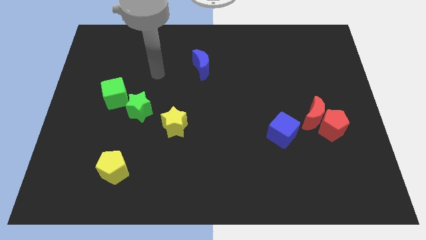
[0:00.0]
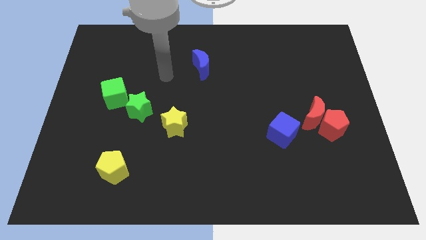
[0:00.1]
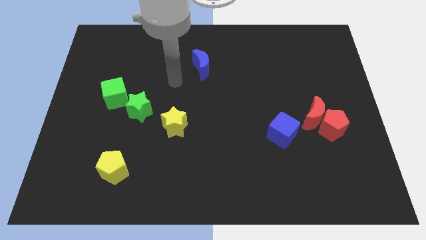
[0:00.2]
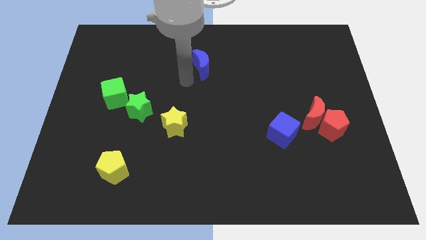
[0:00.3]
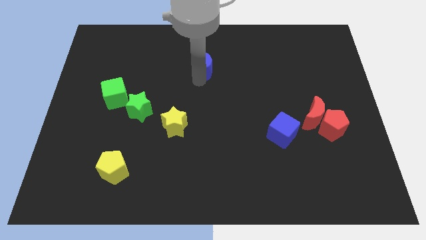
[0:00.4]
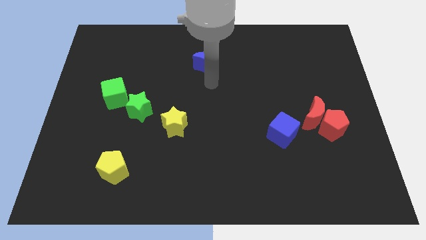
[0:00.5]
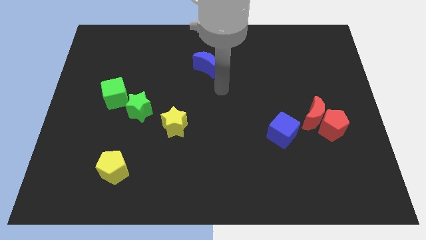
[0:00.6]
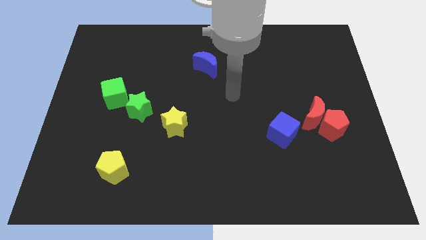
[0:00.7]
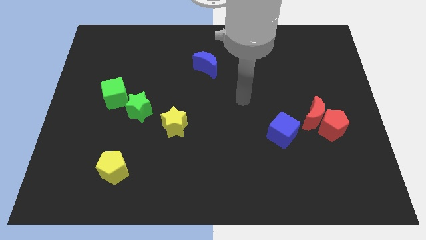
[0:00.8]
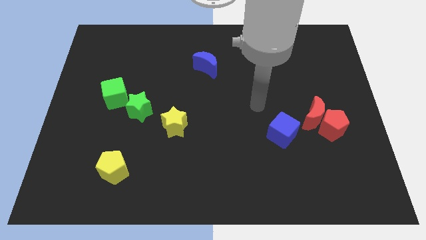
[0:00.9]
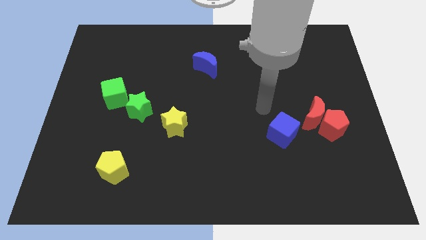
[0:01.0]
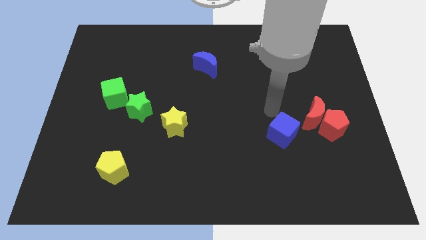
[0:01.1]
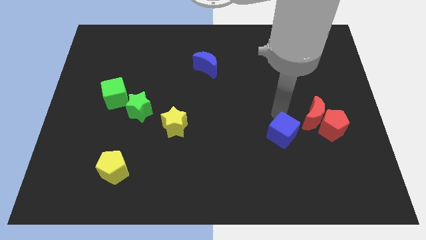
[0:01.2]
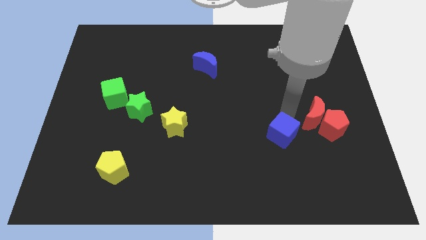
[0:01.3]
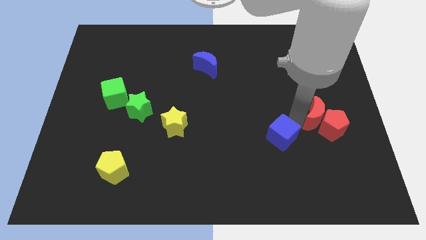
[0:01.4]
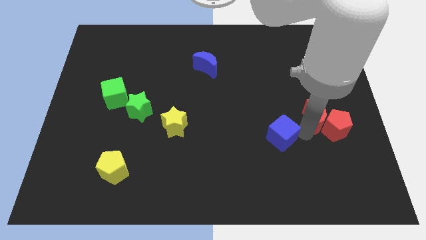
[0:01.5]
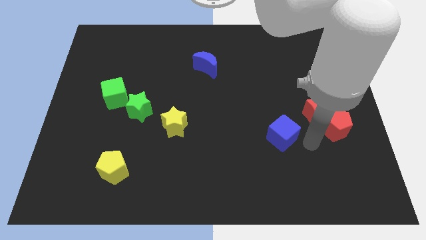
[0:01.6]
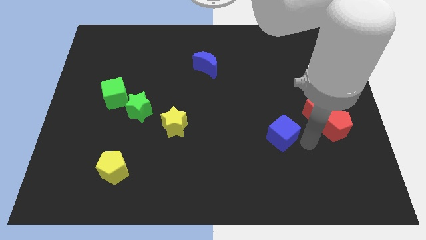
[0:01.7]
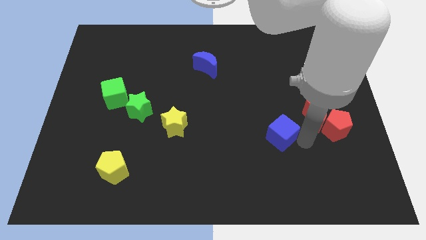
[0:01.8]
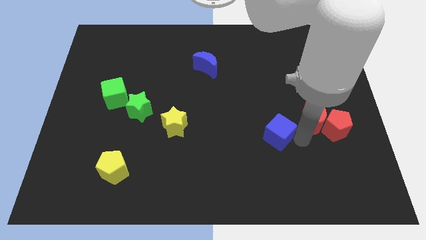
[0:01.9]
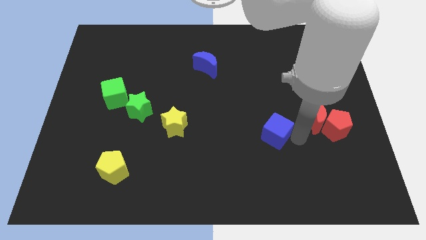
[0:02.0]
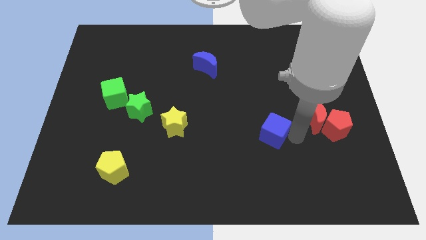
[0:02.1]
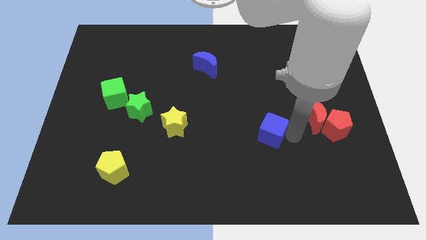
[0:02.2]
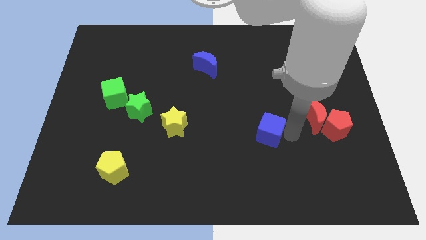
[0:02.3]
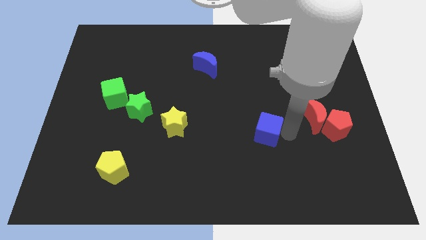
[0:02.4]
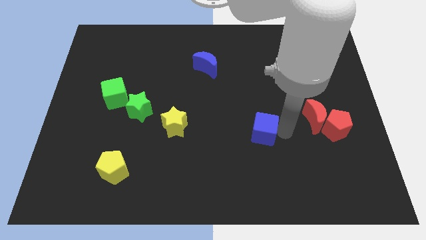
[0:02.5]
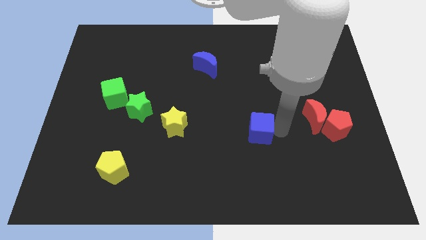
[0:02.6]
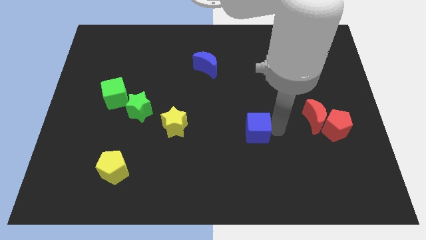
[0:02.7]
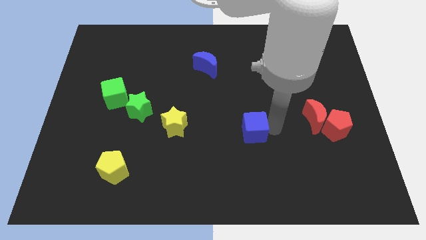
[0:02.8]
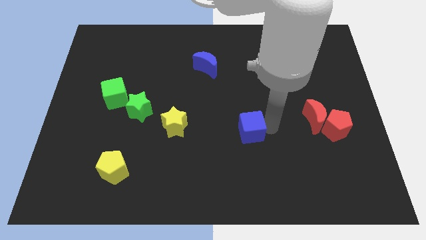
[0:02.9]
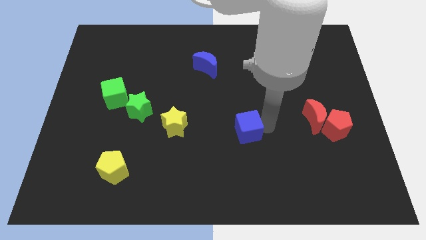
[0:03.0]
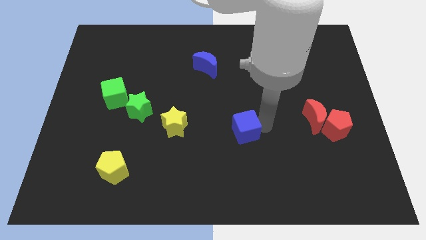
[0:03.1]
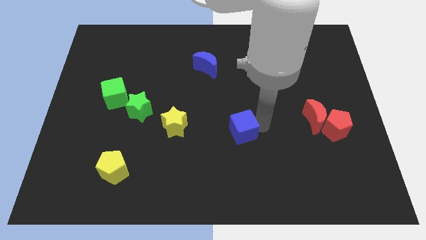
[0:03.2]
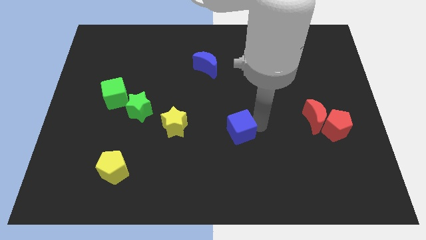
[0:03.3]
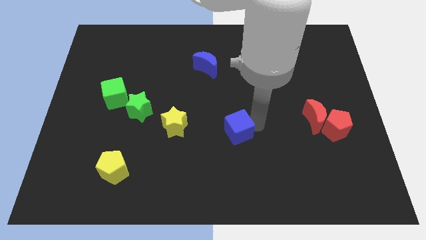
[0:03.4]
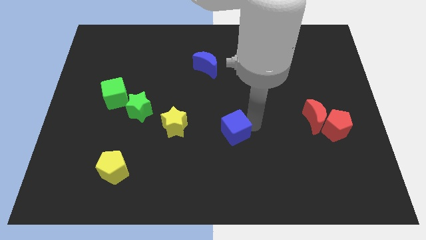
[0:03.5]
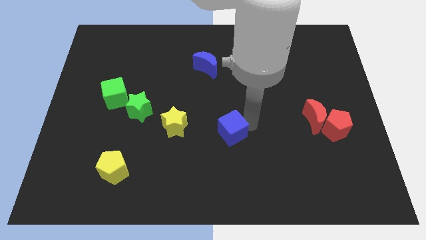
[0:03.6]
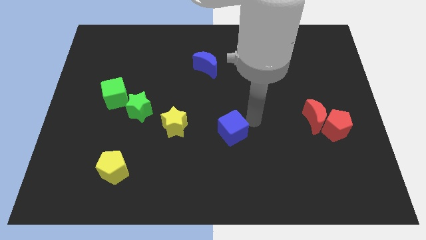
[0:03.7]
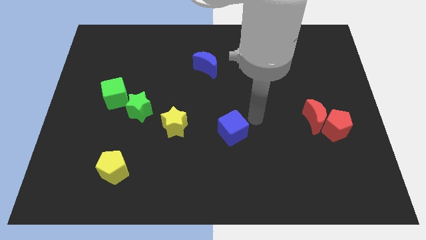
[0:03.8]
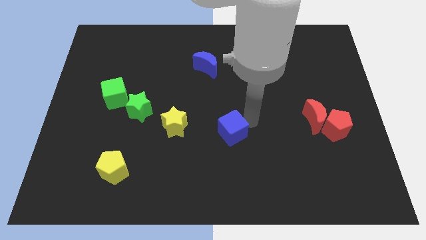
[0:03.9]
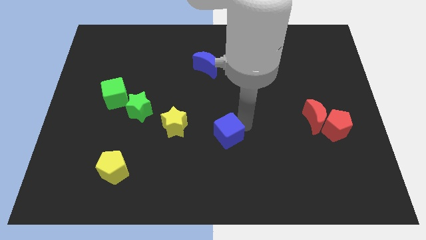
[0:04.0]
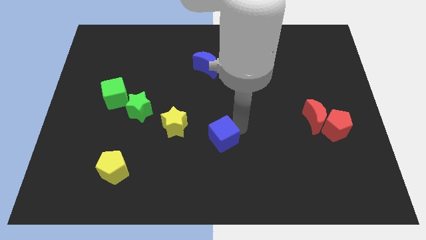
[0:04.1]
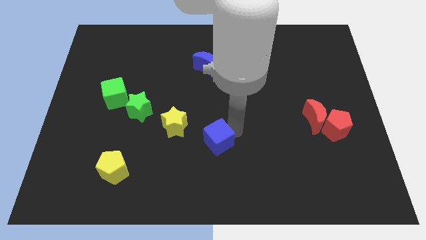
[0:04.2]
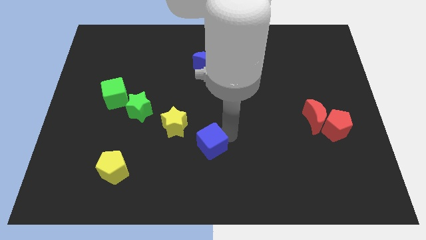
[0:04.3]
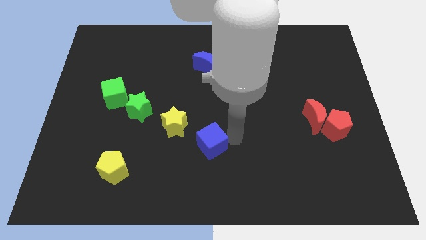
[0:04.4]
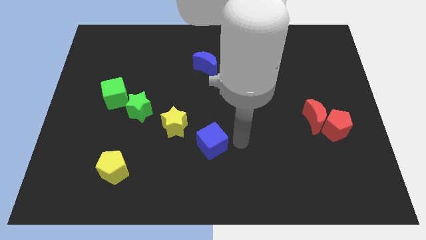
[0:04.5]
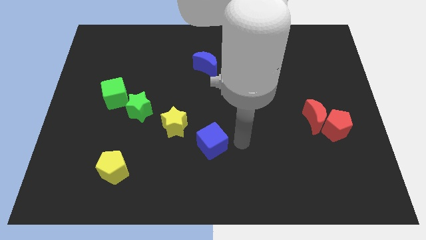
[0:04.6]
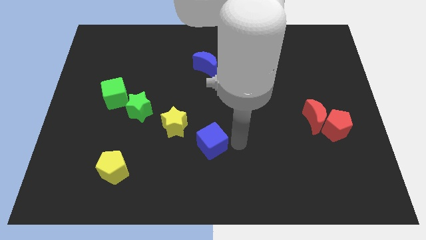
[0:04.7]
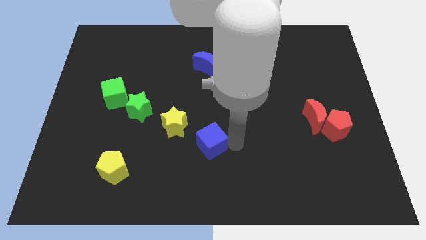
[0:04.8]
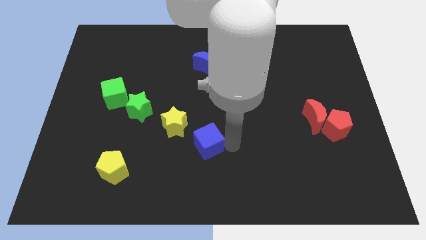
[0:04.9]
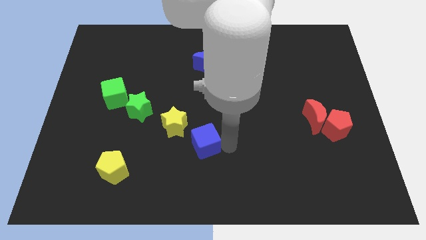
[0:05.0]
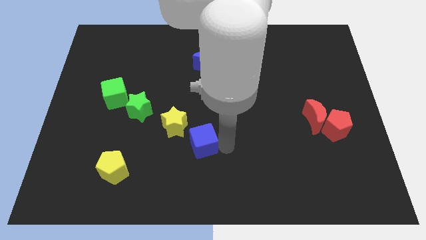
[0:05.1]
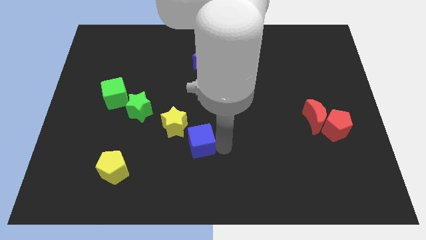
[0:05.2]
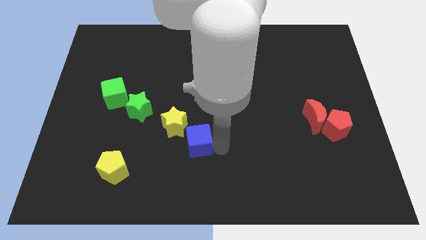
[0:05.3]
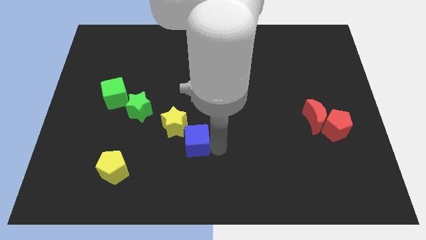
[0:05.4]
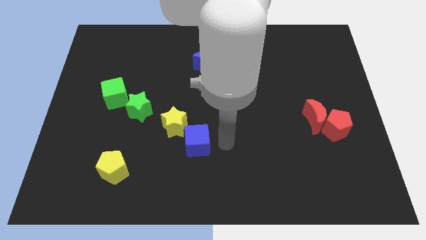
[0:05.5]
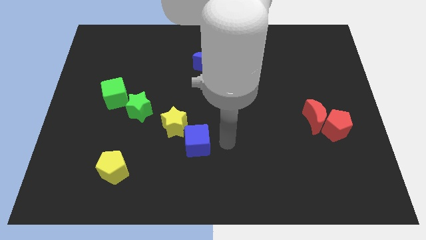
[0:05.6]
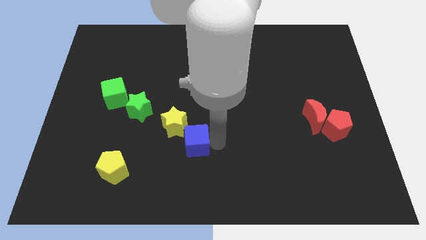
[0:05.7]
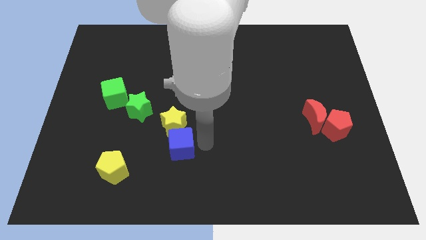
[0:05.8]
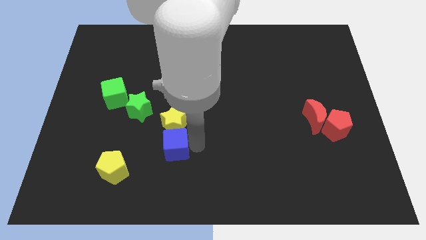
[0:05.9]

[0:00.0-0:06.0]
move the blue cube to the bottom left of the yellow star
